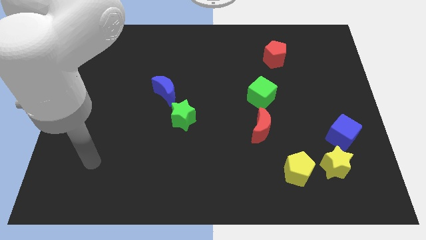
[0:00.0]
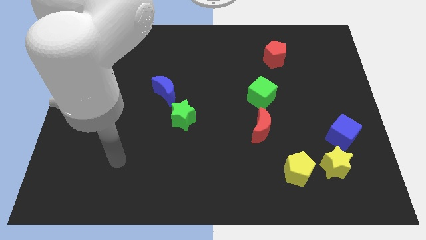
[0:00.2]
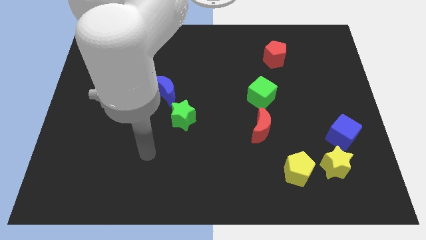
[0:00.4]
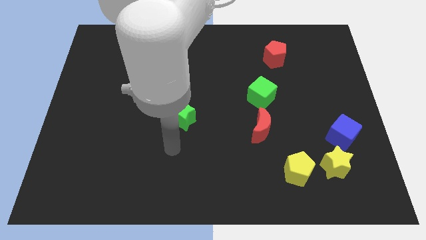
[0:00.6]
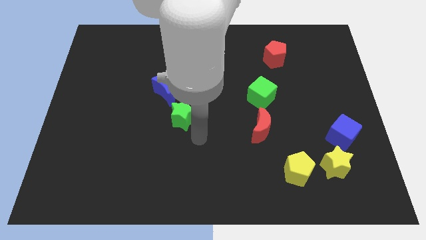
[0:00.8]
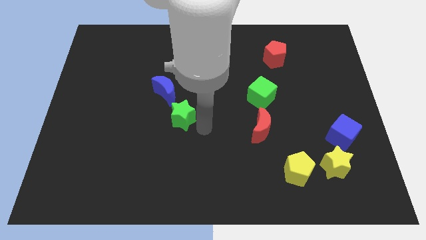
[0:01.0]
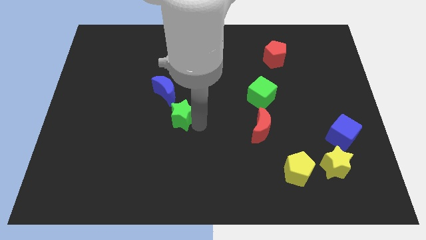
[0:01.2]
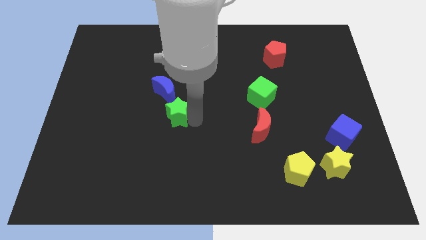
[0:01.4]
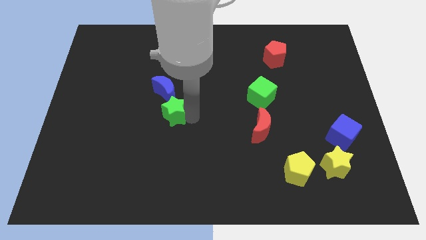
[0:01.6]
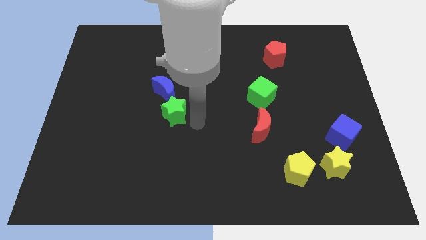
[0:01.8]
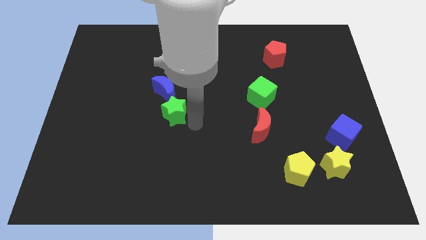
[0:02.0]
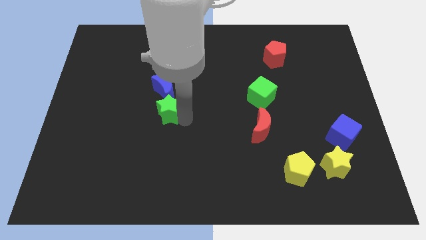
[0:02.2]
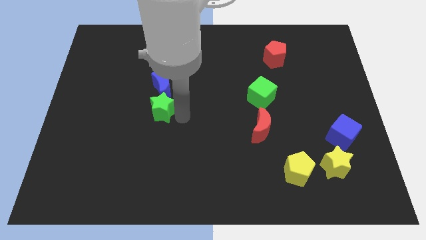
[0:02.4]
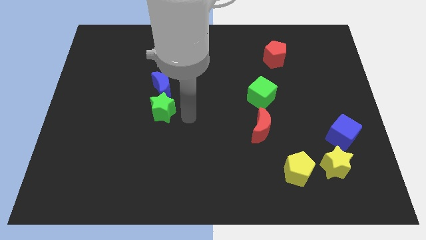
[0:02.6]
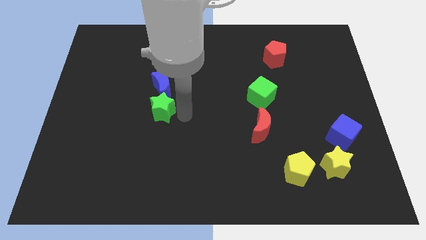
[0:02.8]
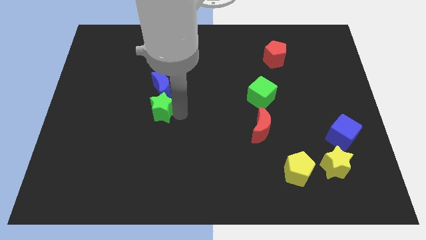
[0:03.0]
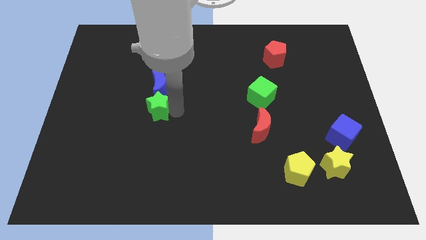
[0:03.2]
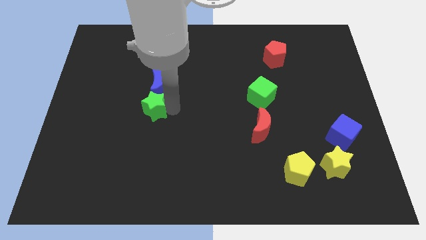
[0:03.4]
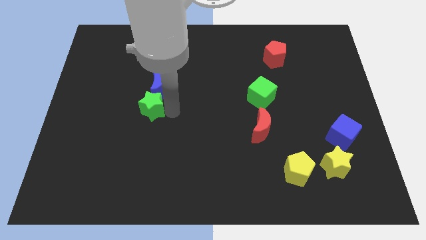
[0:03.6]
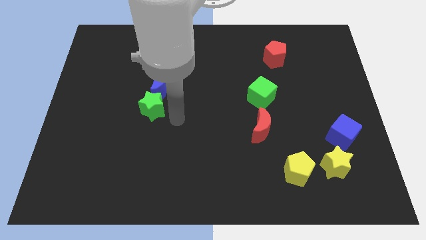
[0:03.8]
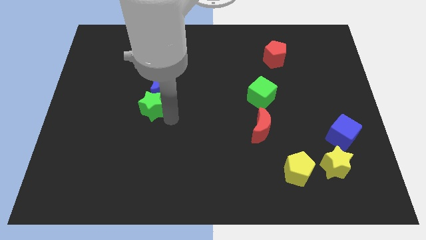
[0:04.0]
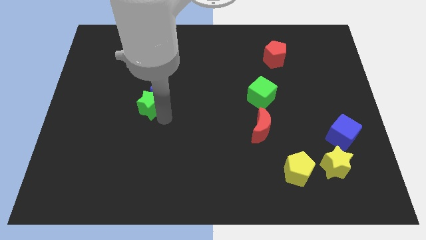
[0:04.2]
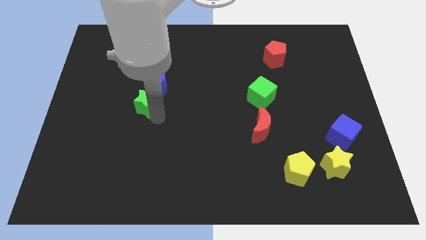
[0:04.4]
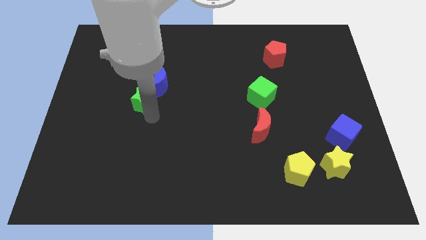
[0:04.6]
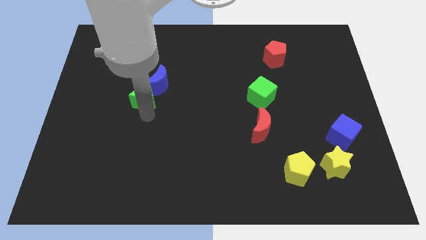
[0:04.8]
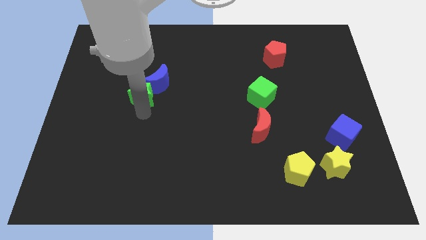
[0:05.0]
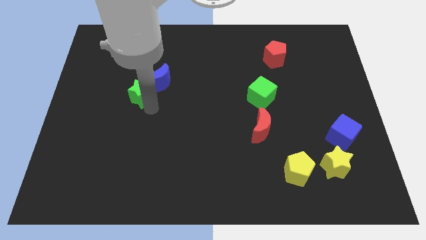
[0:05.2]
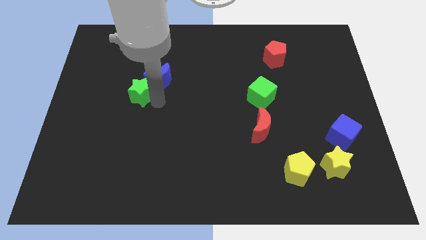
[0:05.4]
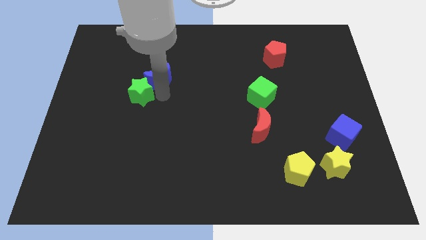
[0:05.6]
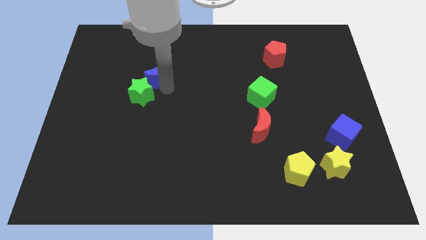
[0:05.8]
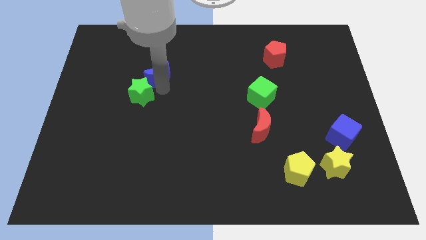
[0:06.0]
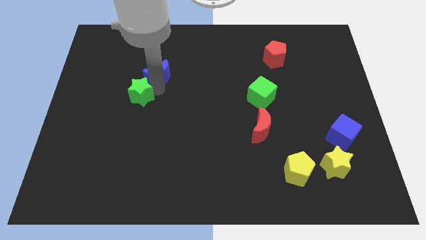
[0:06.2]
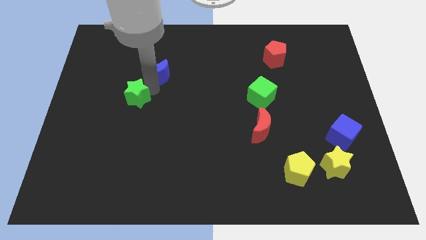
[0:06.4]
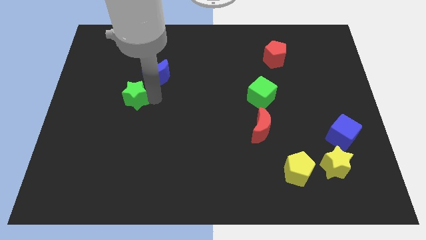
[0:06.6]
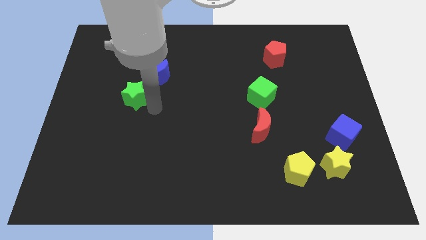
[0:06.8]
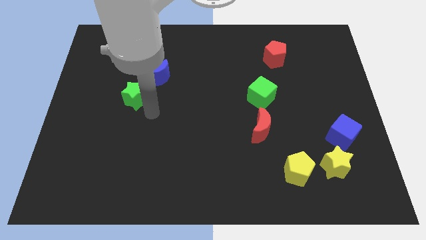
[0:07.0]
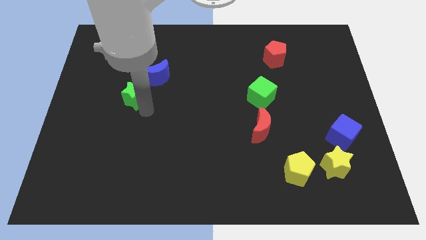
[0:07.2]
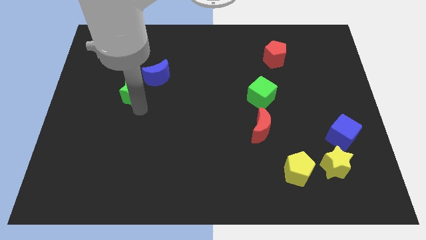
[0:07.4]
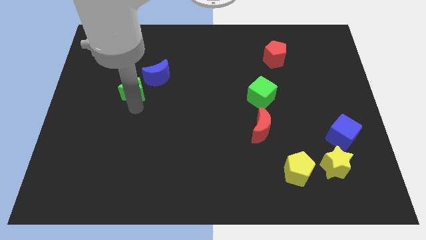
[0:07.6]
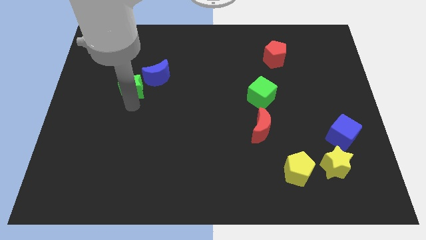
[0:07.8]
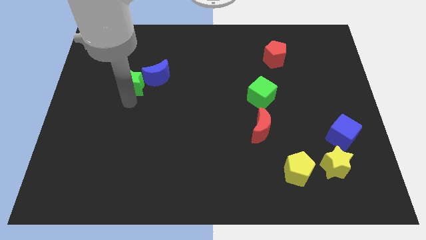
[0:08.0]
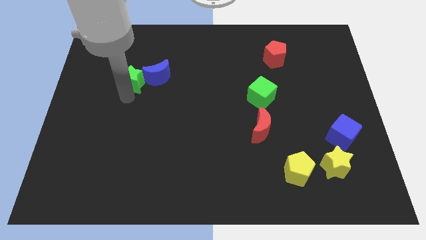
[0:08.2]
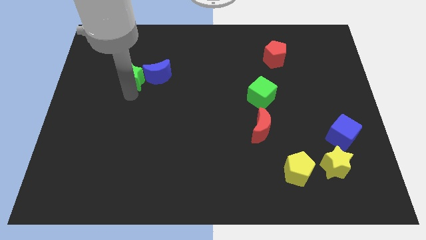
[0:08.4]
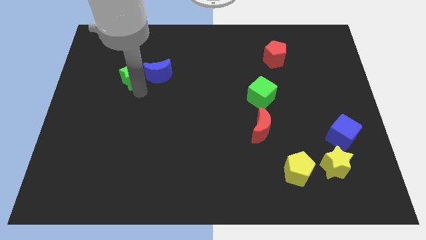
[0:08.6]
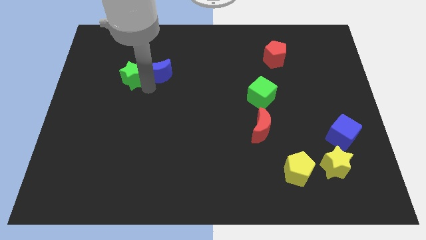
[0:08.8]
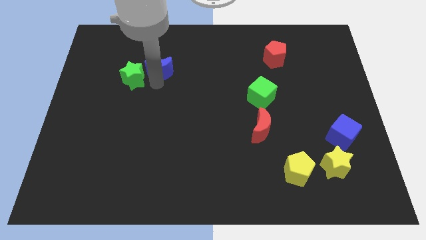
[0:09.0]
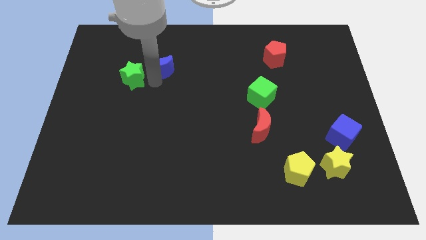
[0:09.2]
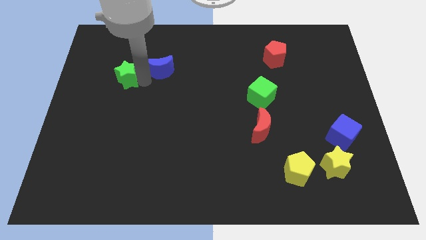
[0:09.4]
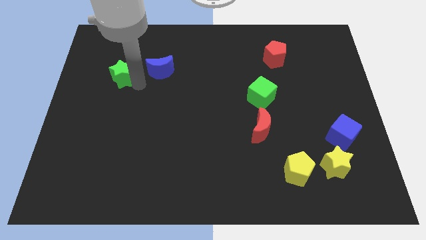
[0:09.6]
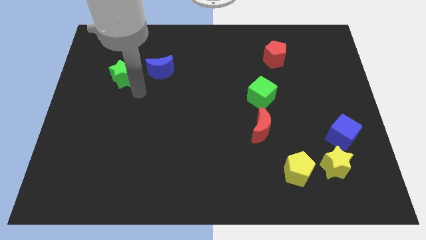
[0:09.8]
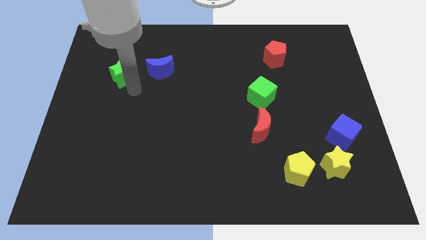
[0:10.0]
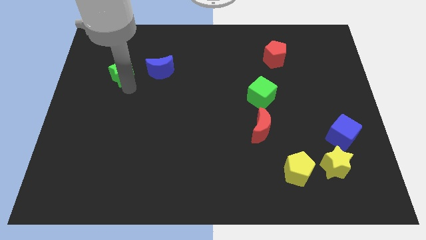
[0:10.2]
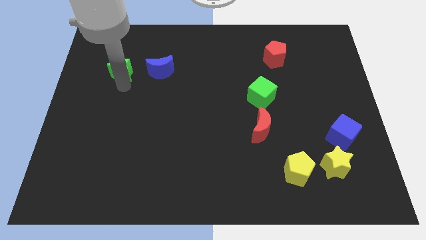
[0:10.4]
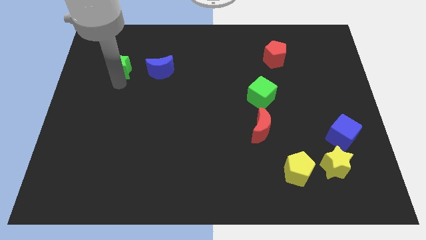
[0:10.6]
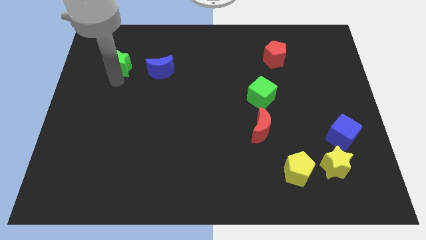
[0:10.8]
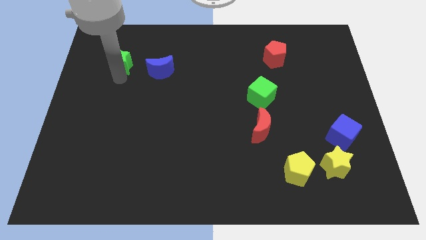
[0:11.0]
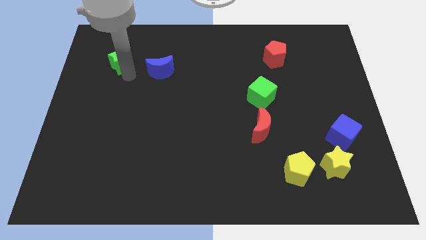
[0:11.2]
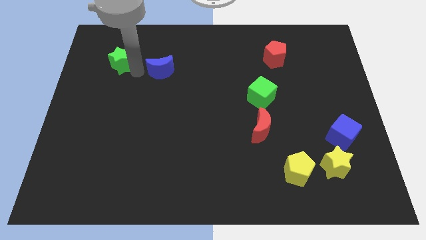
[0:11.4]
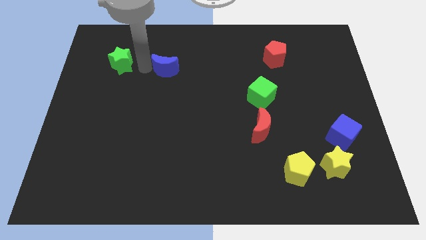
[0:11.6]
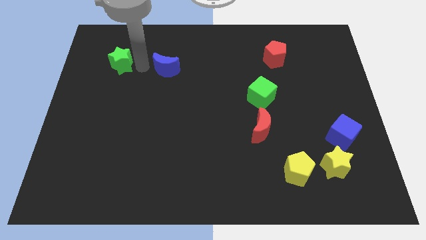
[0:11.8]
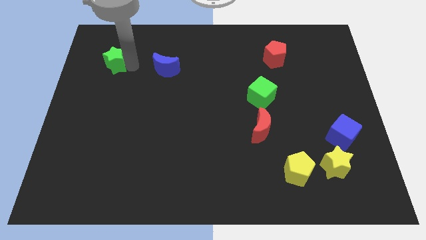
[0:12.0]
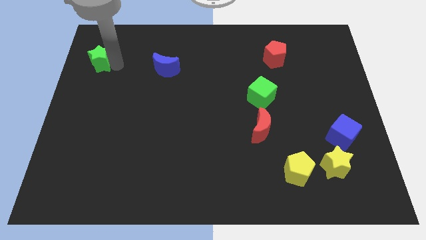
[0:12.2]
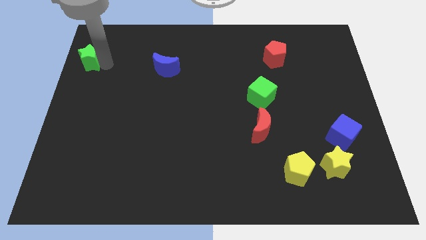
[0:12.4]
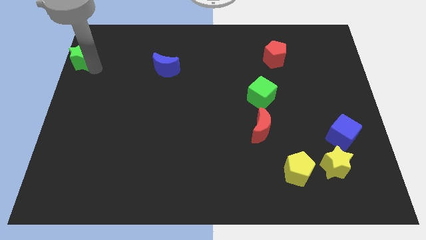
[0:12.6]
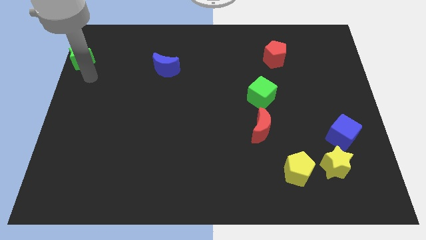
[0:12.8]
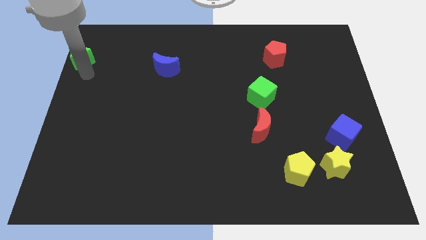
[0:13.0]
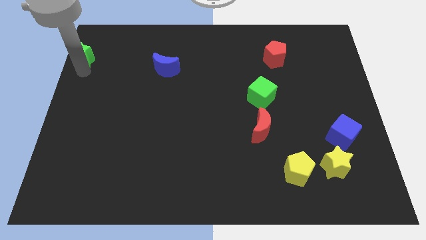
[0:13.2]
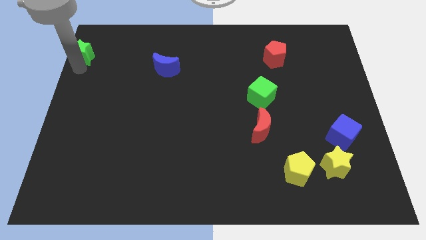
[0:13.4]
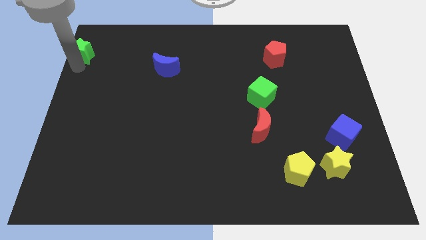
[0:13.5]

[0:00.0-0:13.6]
move the green star to the top left corner

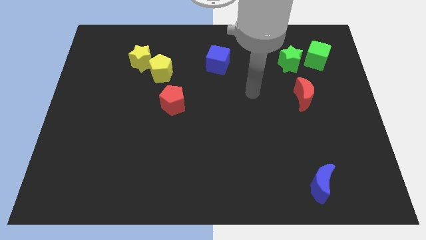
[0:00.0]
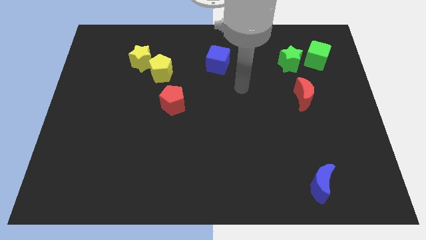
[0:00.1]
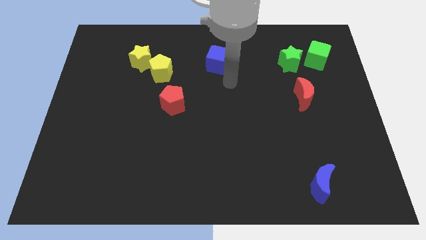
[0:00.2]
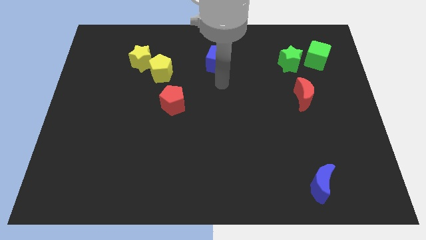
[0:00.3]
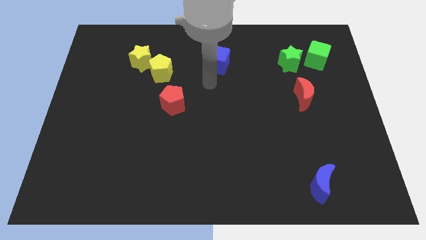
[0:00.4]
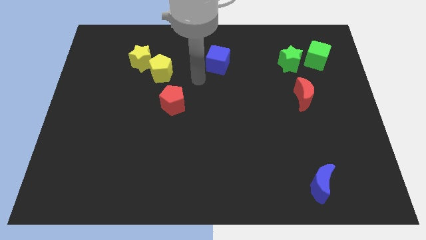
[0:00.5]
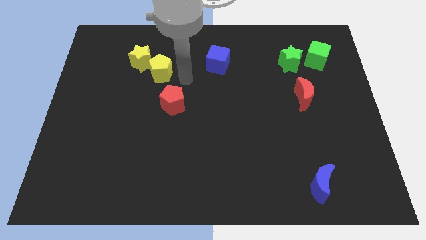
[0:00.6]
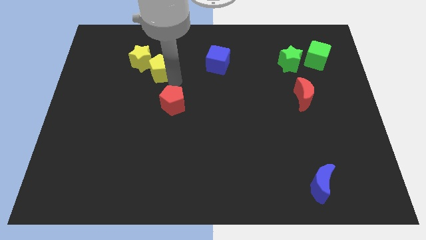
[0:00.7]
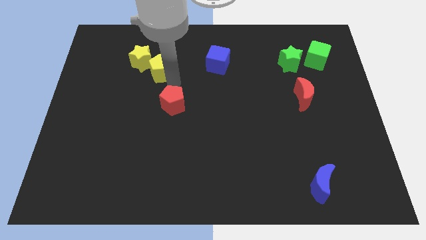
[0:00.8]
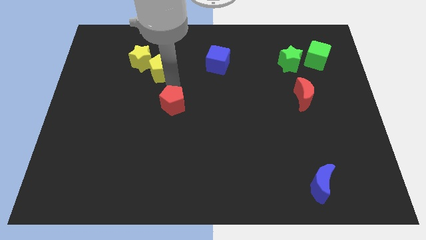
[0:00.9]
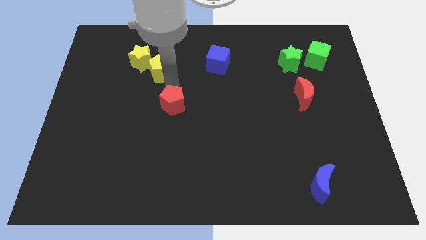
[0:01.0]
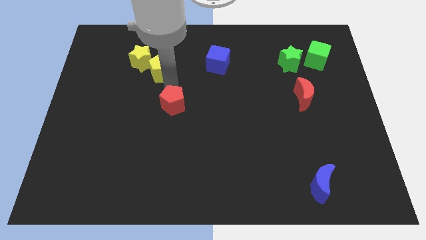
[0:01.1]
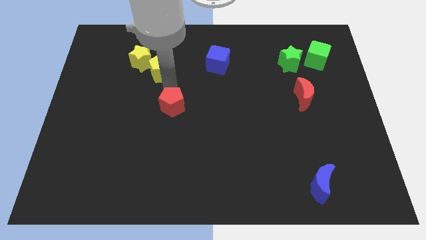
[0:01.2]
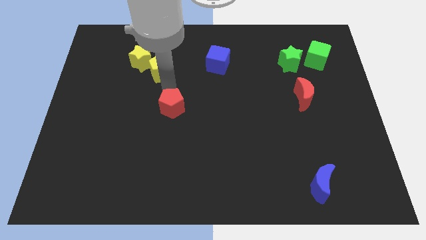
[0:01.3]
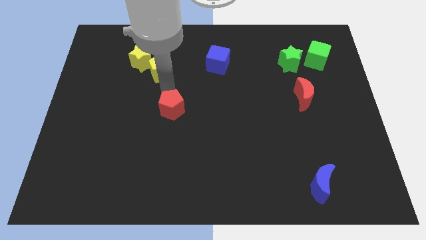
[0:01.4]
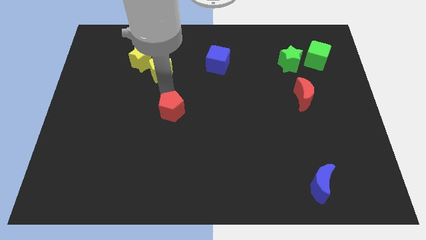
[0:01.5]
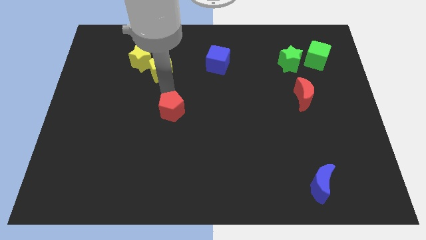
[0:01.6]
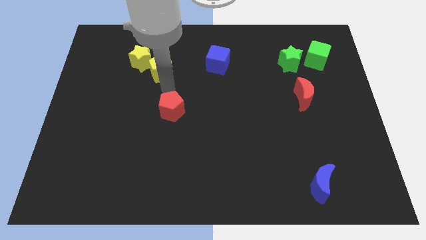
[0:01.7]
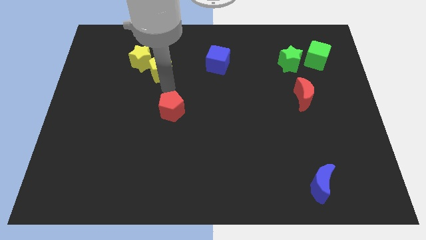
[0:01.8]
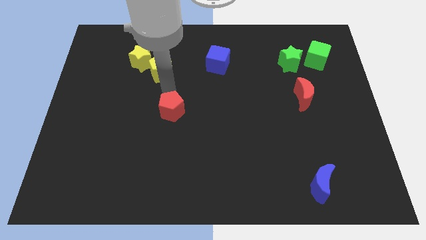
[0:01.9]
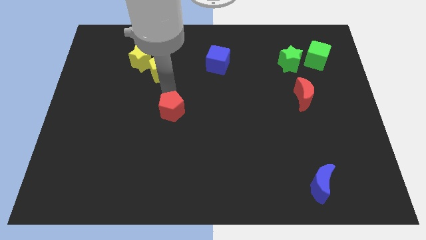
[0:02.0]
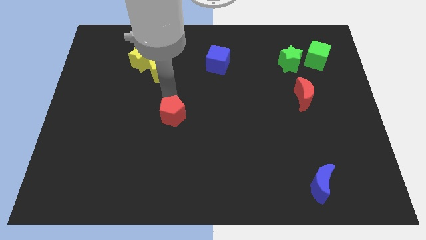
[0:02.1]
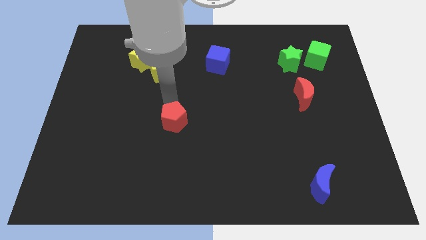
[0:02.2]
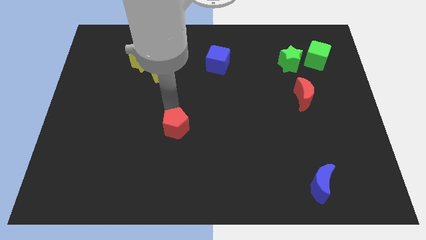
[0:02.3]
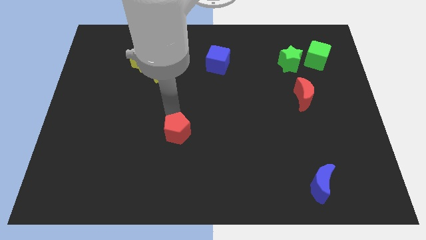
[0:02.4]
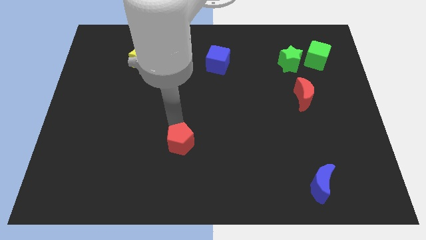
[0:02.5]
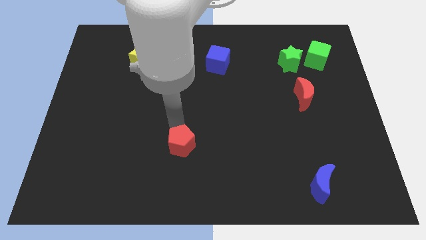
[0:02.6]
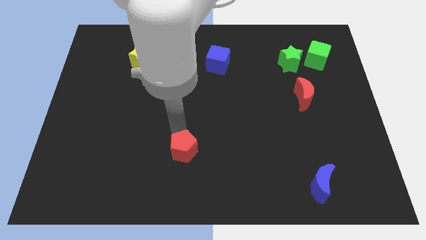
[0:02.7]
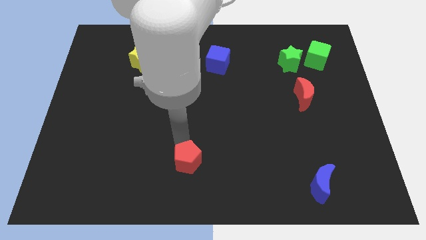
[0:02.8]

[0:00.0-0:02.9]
slide the red pentagon to the bottom
